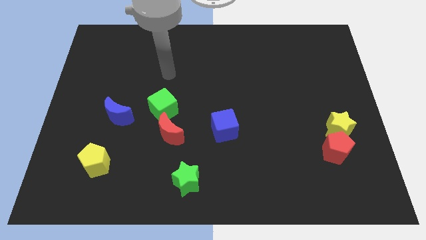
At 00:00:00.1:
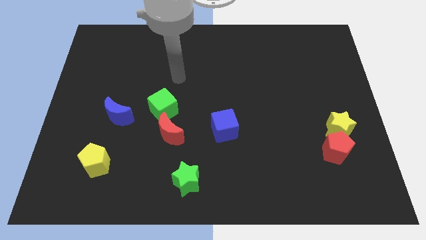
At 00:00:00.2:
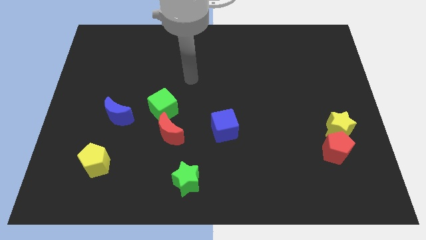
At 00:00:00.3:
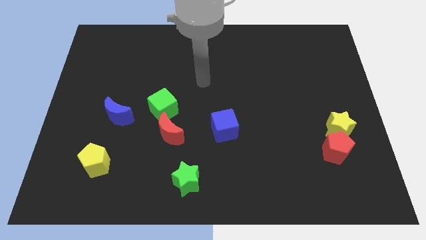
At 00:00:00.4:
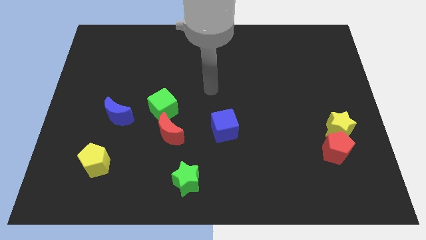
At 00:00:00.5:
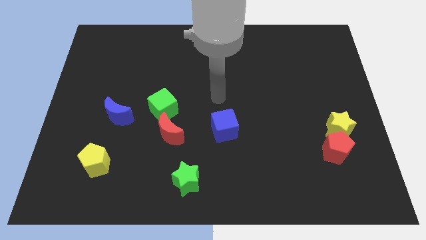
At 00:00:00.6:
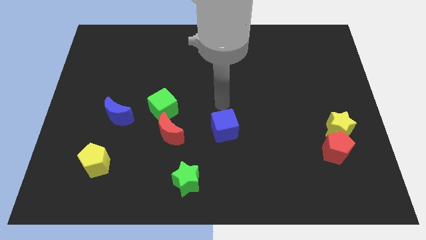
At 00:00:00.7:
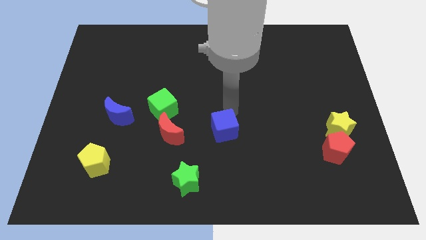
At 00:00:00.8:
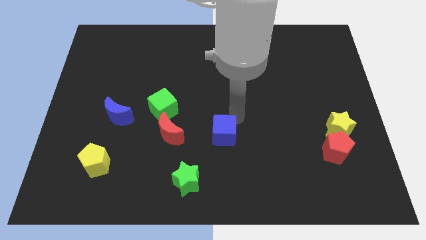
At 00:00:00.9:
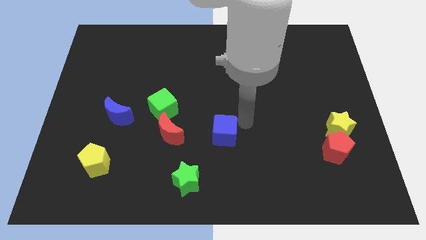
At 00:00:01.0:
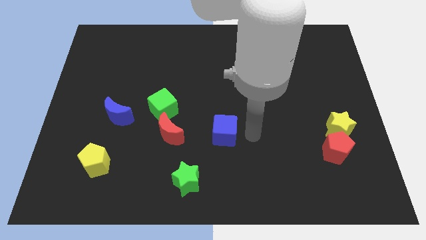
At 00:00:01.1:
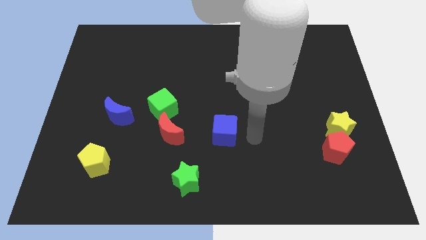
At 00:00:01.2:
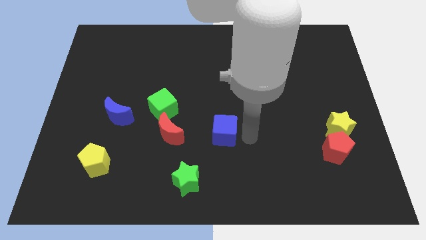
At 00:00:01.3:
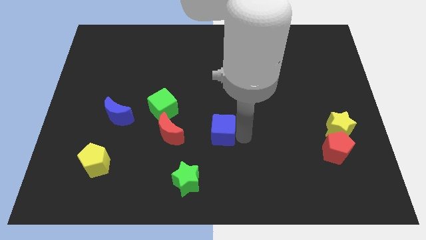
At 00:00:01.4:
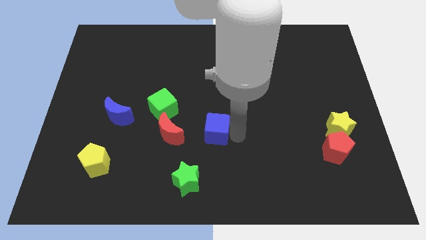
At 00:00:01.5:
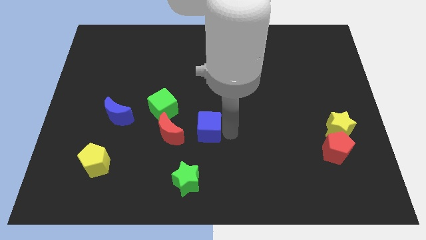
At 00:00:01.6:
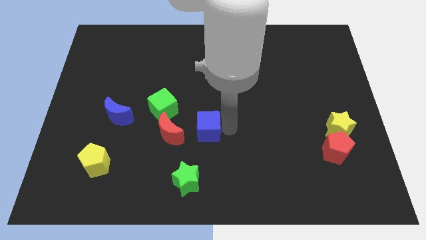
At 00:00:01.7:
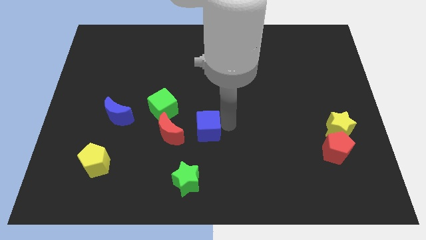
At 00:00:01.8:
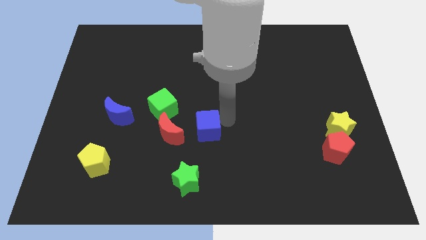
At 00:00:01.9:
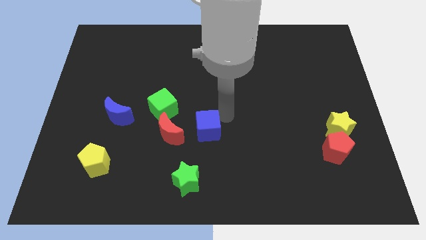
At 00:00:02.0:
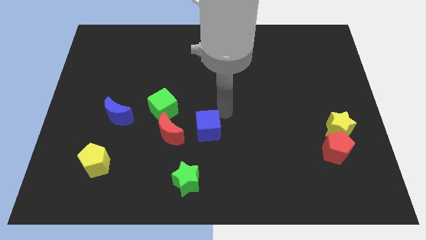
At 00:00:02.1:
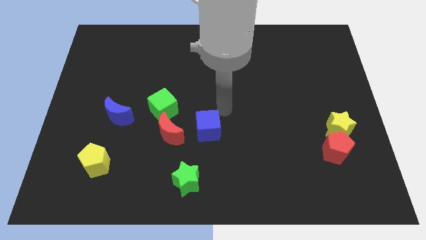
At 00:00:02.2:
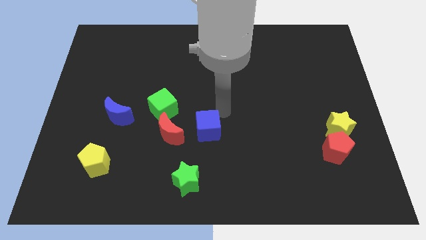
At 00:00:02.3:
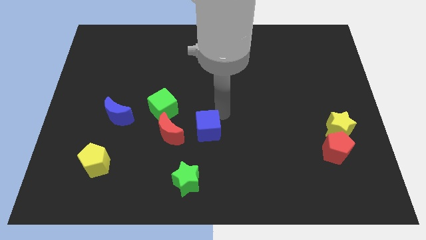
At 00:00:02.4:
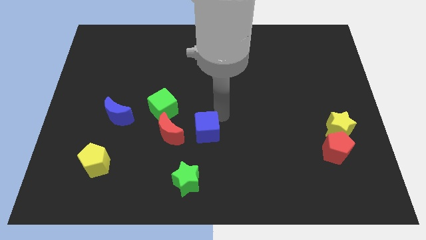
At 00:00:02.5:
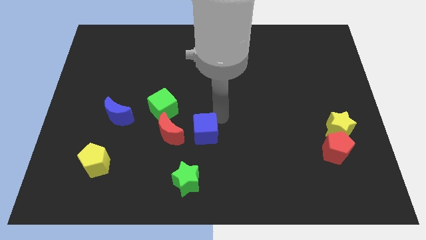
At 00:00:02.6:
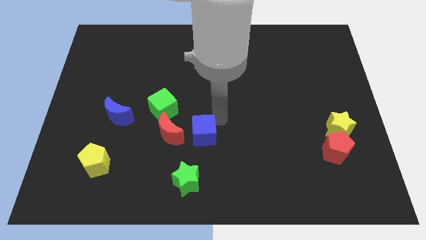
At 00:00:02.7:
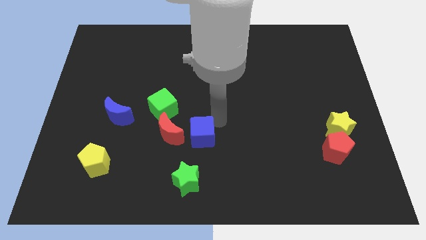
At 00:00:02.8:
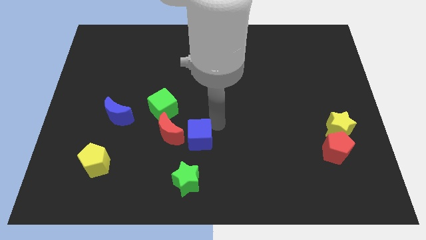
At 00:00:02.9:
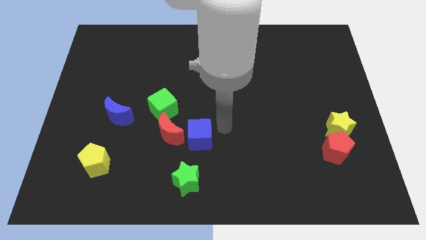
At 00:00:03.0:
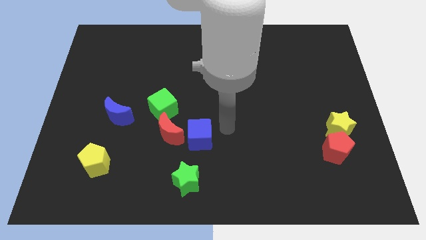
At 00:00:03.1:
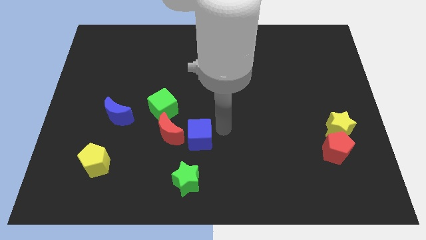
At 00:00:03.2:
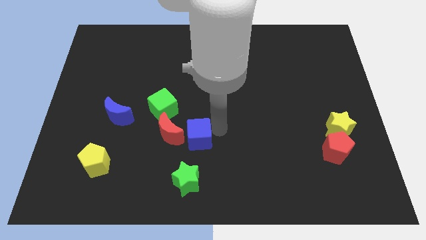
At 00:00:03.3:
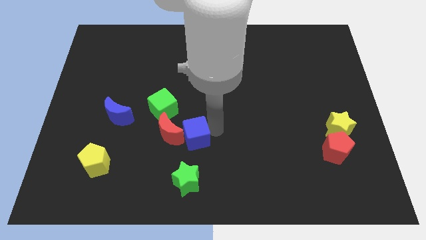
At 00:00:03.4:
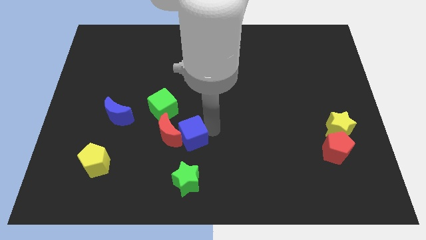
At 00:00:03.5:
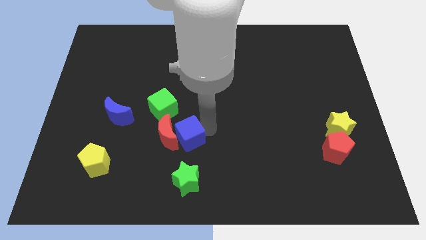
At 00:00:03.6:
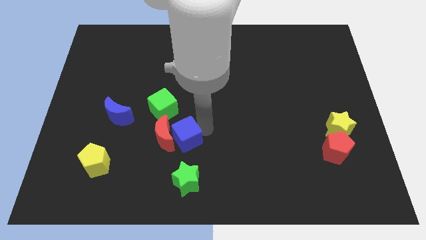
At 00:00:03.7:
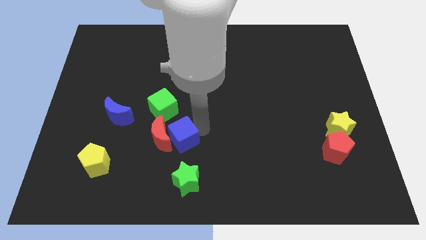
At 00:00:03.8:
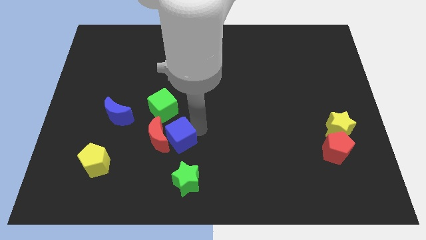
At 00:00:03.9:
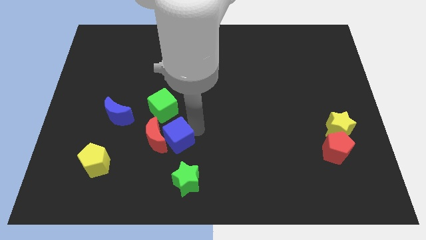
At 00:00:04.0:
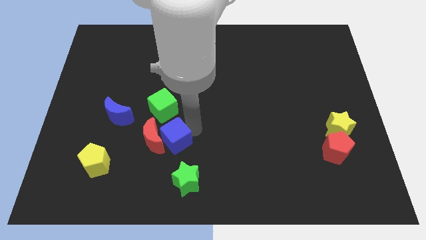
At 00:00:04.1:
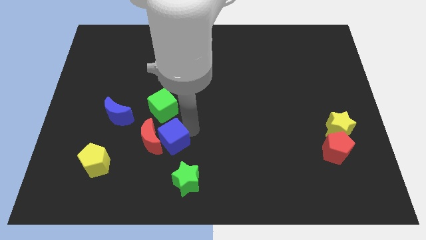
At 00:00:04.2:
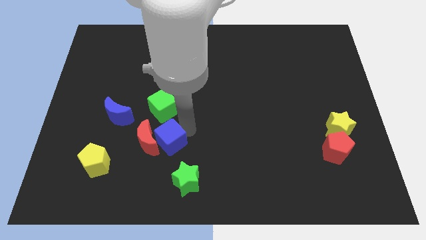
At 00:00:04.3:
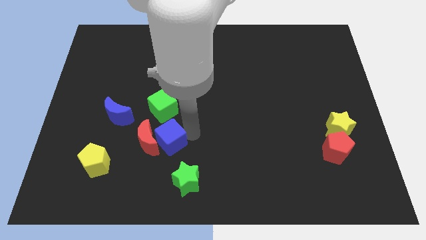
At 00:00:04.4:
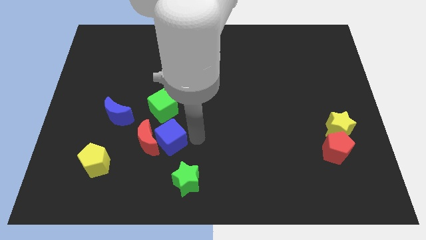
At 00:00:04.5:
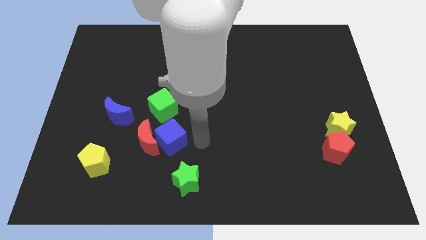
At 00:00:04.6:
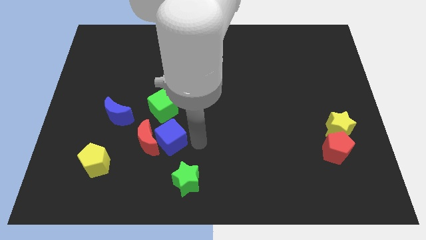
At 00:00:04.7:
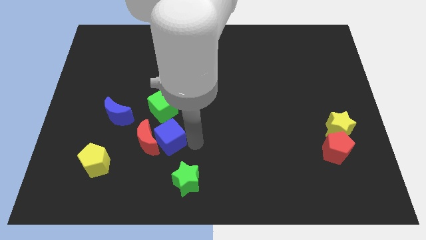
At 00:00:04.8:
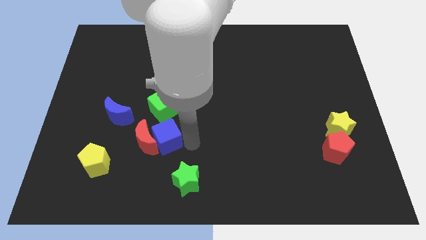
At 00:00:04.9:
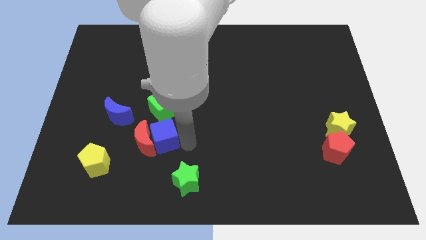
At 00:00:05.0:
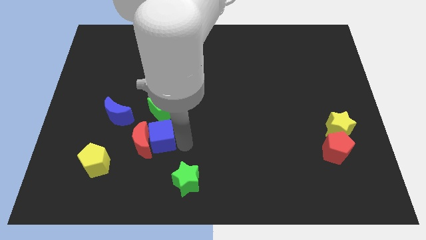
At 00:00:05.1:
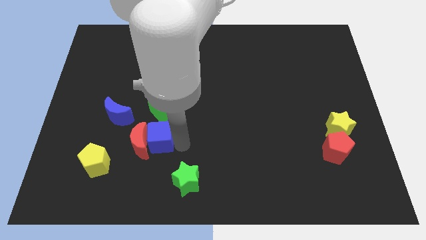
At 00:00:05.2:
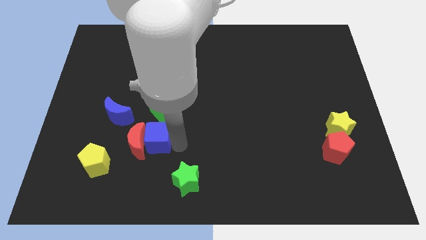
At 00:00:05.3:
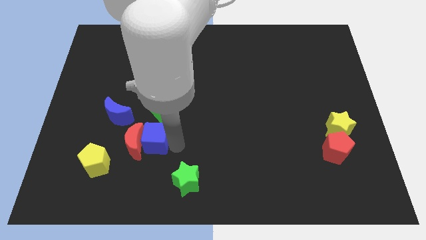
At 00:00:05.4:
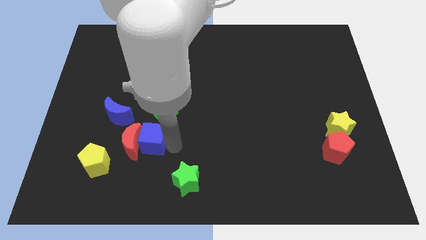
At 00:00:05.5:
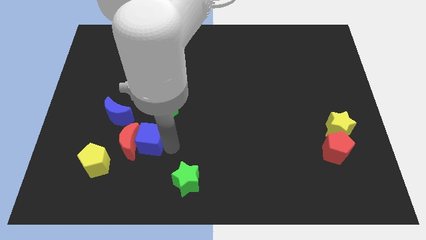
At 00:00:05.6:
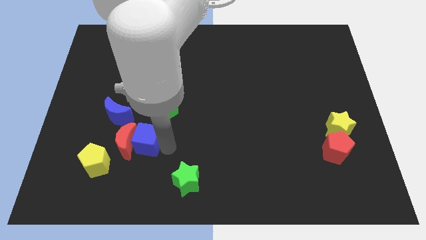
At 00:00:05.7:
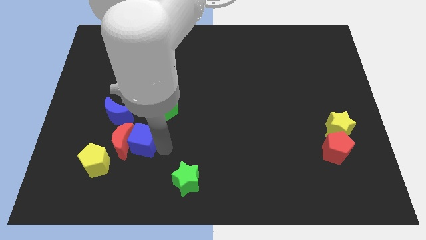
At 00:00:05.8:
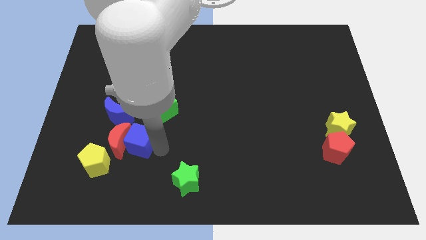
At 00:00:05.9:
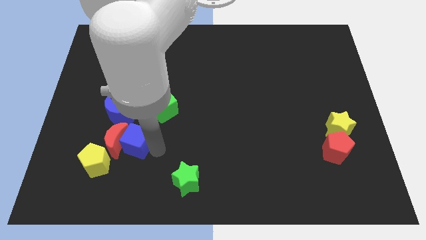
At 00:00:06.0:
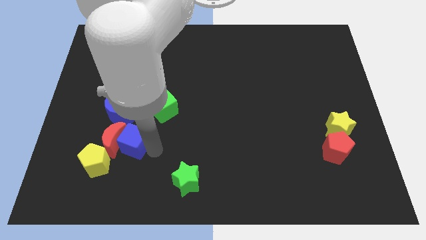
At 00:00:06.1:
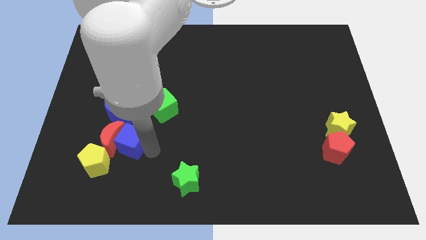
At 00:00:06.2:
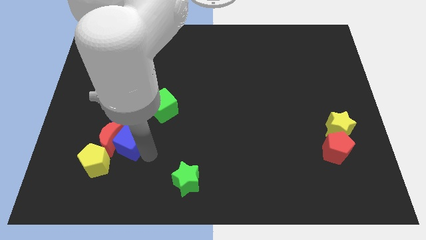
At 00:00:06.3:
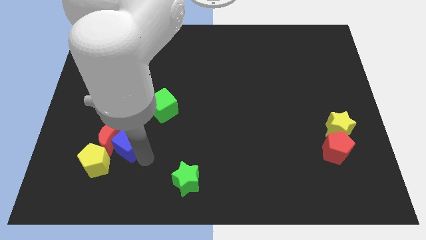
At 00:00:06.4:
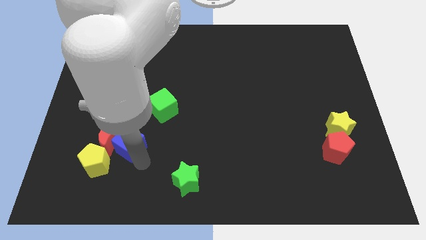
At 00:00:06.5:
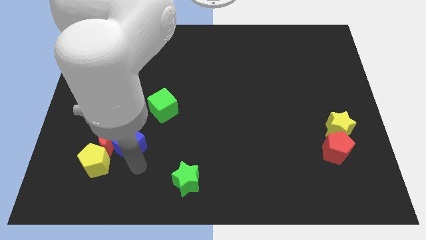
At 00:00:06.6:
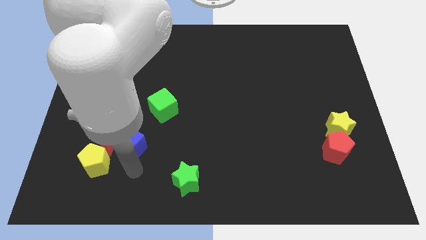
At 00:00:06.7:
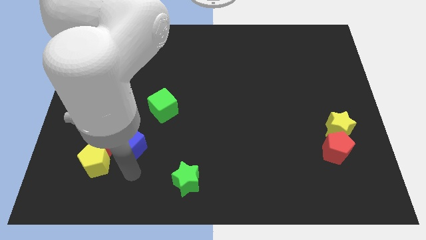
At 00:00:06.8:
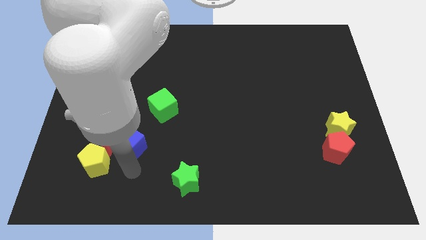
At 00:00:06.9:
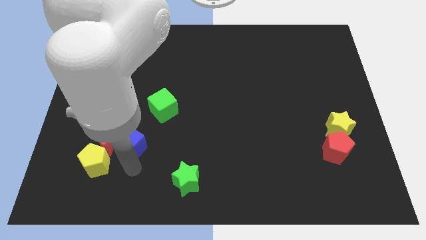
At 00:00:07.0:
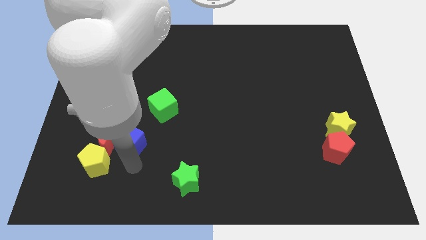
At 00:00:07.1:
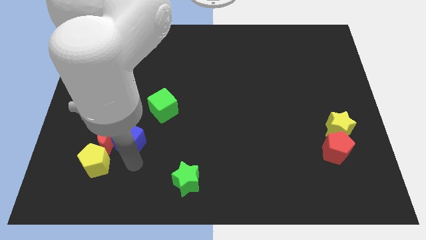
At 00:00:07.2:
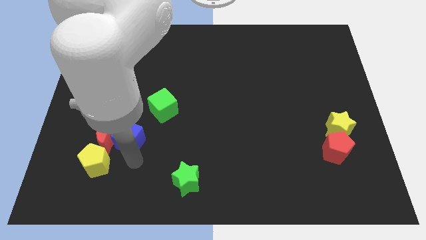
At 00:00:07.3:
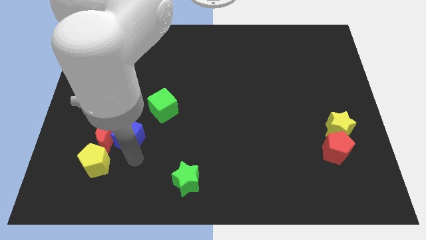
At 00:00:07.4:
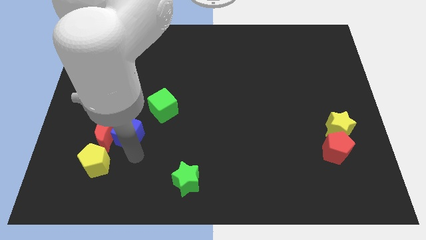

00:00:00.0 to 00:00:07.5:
slide the blue cube close to the blue moon
